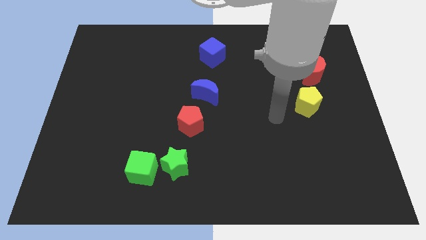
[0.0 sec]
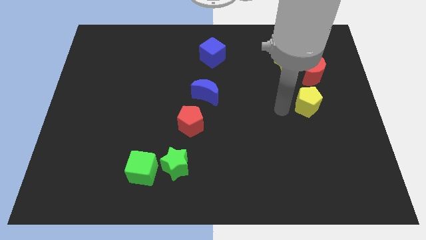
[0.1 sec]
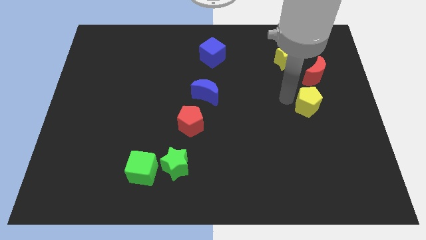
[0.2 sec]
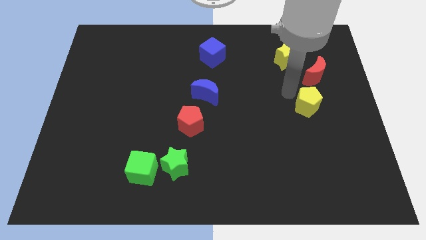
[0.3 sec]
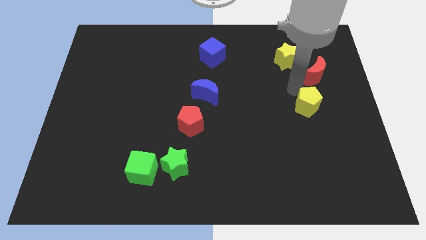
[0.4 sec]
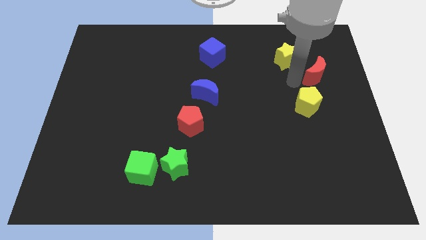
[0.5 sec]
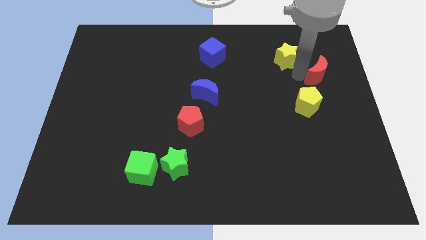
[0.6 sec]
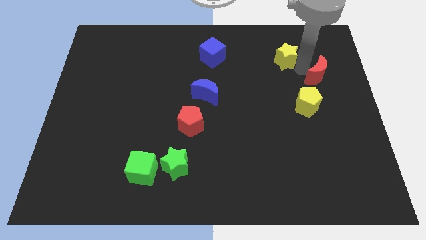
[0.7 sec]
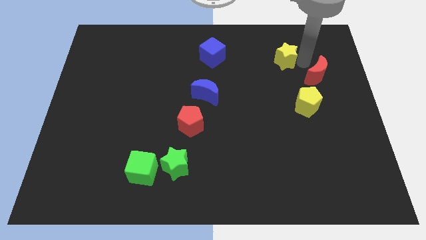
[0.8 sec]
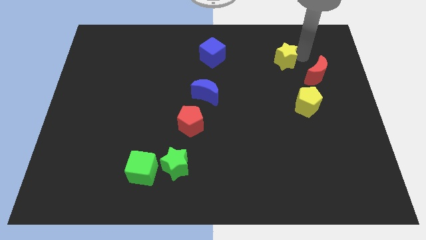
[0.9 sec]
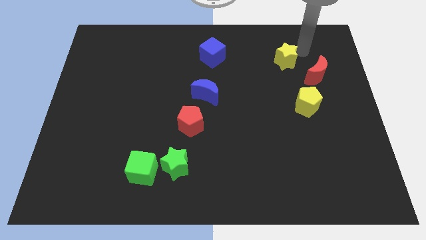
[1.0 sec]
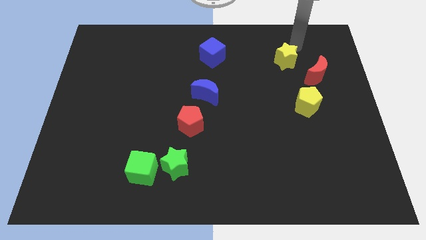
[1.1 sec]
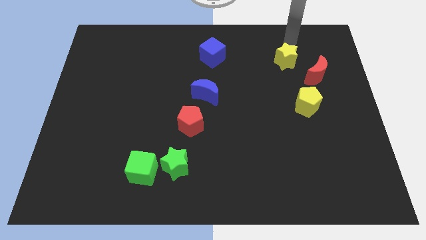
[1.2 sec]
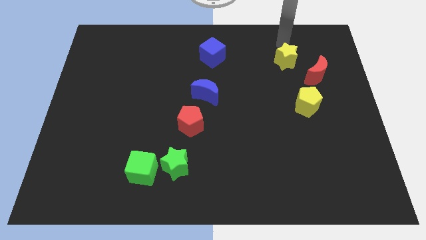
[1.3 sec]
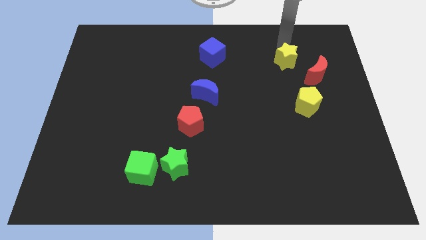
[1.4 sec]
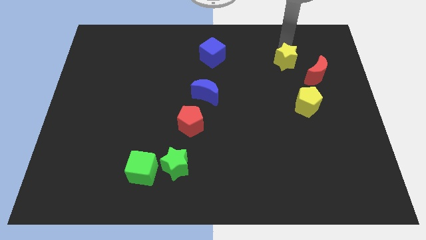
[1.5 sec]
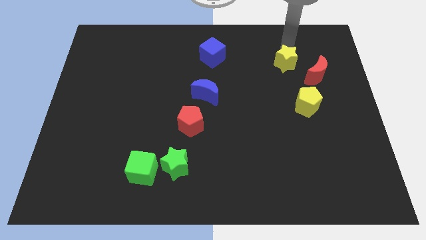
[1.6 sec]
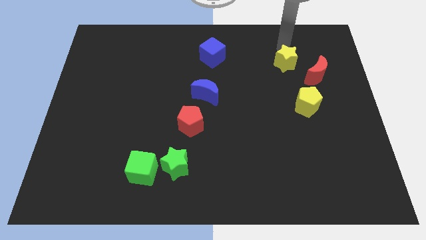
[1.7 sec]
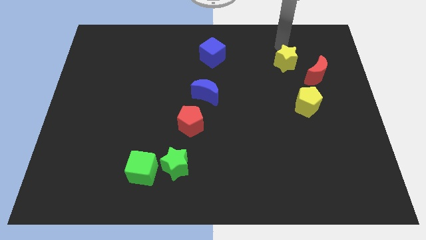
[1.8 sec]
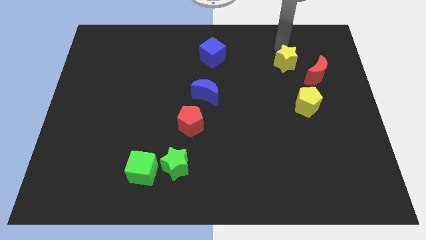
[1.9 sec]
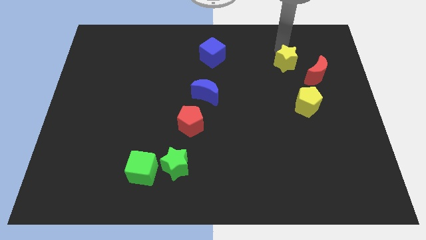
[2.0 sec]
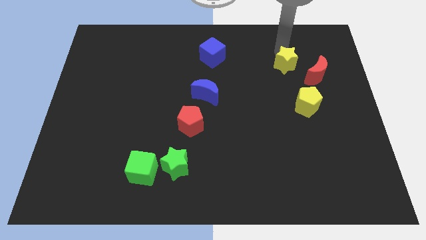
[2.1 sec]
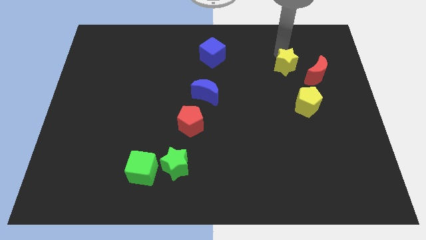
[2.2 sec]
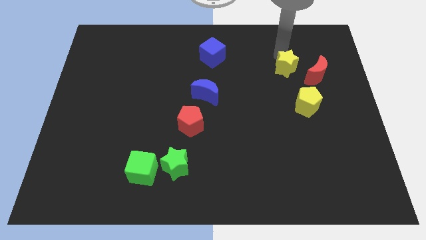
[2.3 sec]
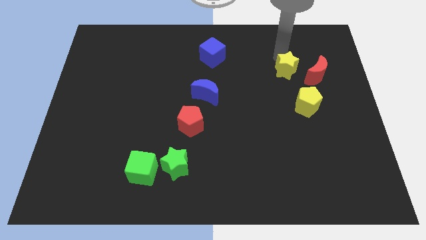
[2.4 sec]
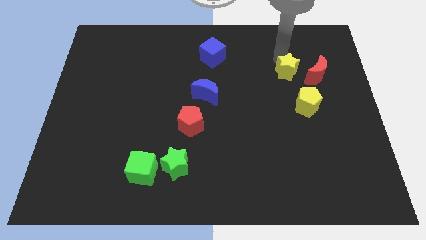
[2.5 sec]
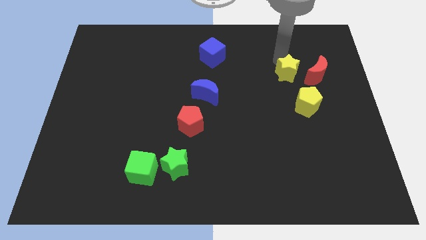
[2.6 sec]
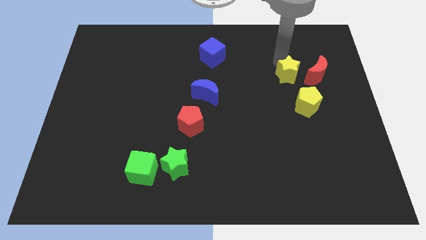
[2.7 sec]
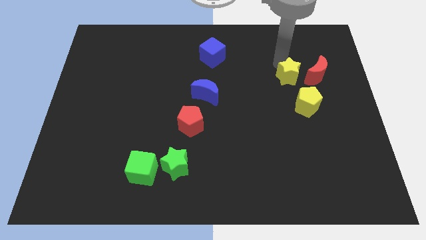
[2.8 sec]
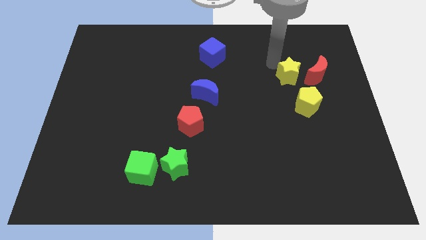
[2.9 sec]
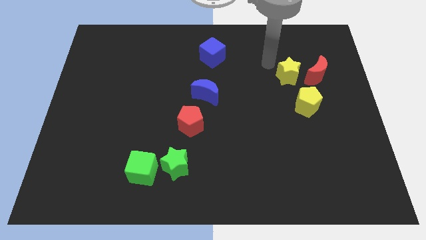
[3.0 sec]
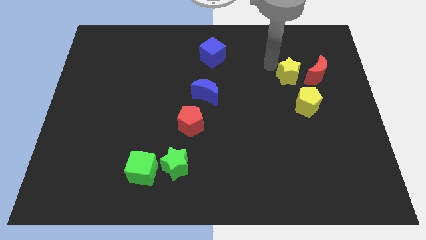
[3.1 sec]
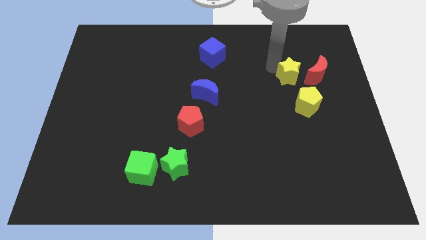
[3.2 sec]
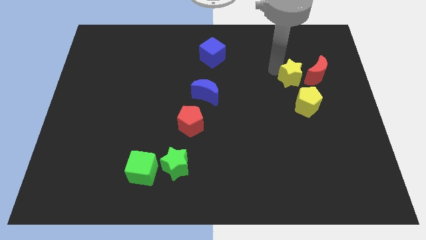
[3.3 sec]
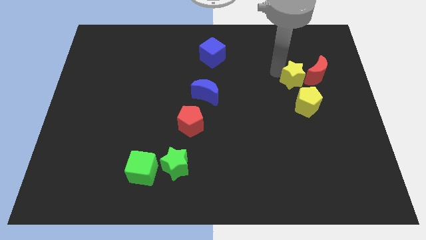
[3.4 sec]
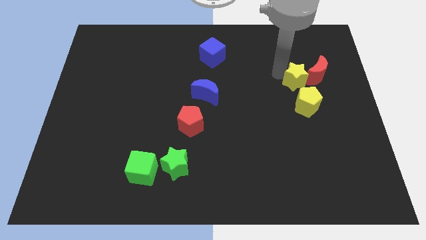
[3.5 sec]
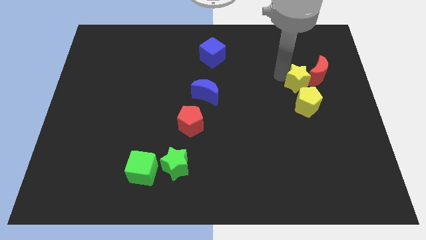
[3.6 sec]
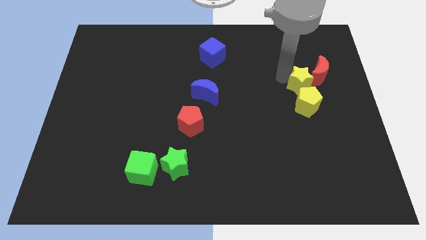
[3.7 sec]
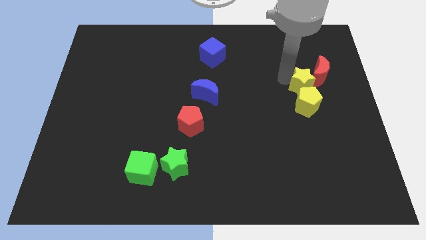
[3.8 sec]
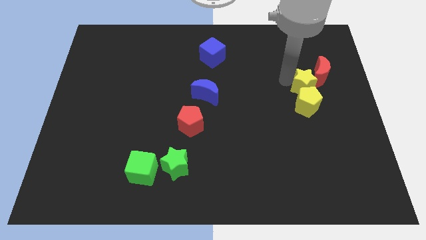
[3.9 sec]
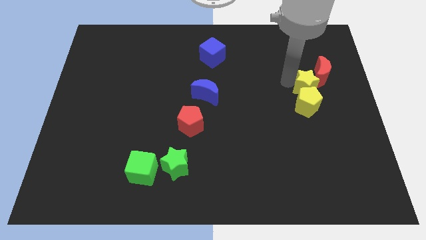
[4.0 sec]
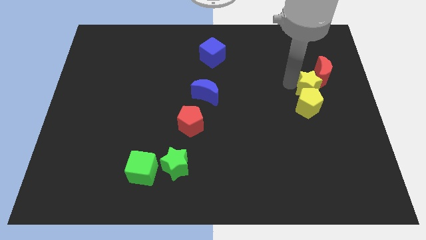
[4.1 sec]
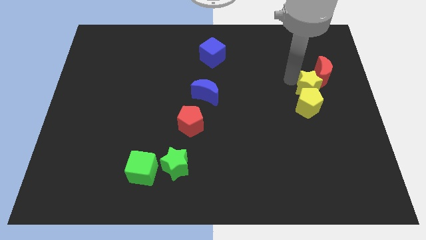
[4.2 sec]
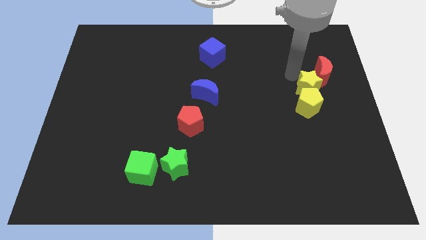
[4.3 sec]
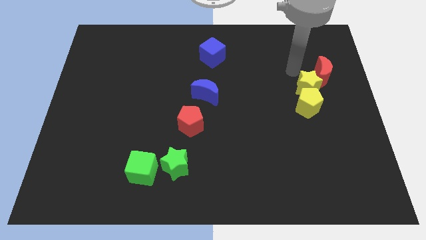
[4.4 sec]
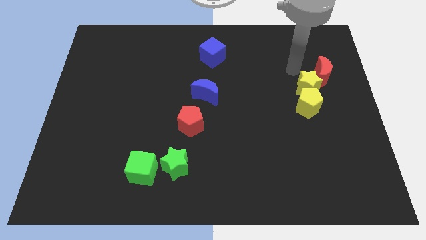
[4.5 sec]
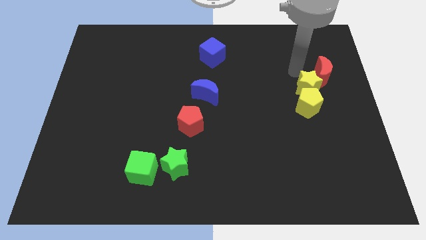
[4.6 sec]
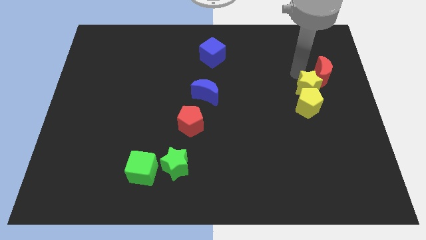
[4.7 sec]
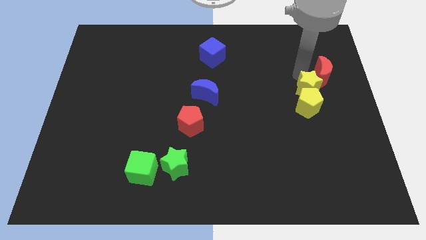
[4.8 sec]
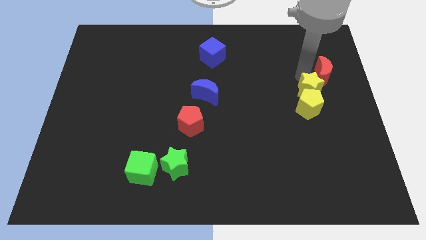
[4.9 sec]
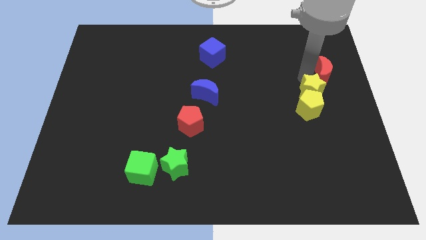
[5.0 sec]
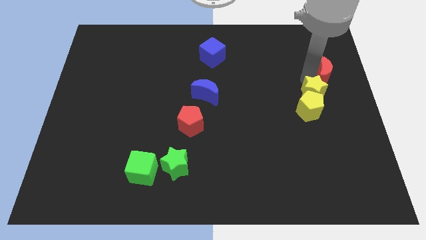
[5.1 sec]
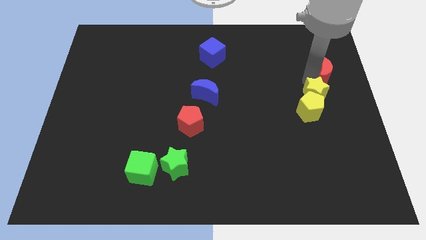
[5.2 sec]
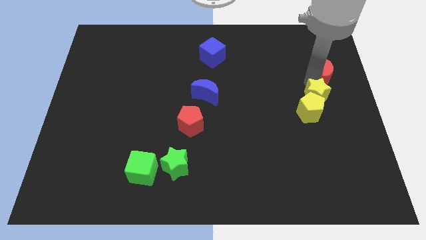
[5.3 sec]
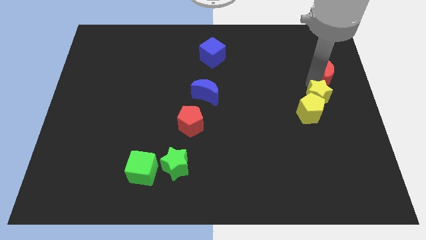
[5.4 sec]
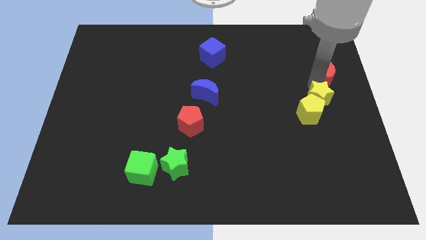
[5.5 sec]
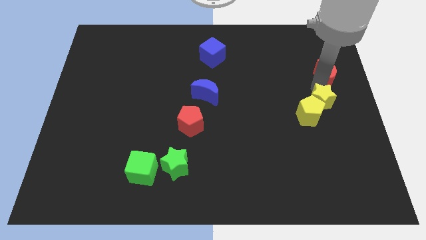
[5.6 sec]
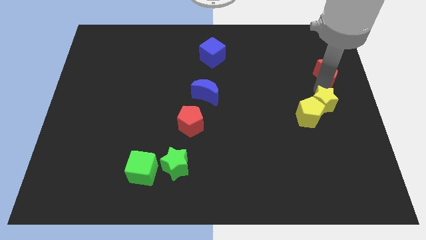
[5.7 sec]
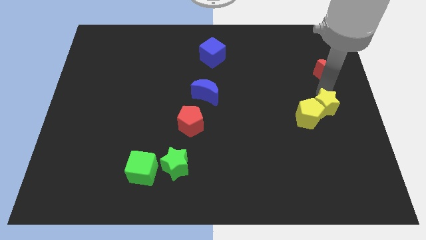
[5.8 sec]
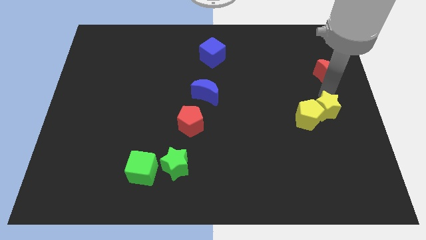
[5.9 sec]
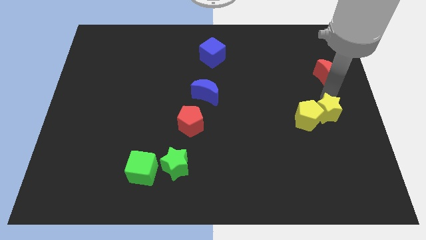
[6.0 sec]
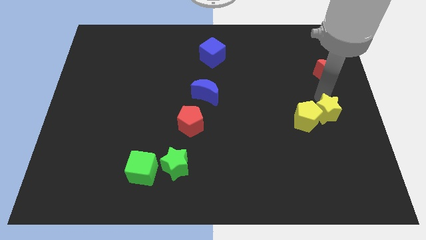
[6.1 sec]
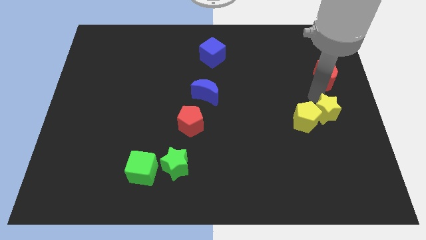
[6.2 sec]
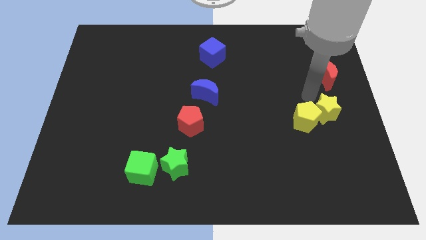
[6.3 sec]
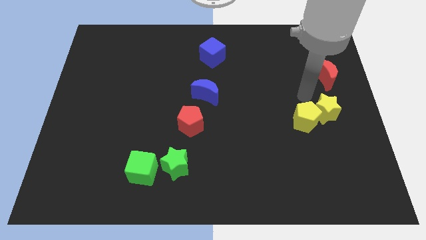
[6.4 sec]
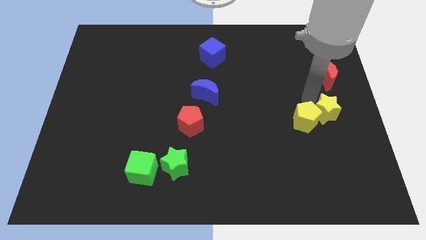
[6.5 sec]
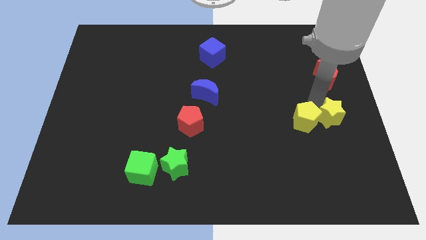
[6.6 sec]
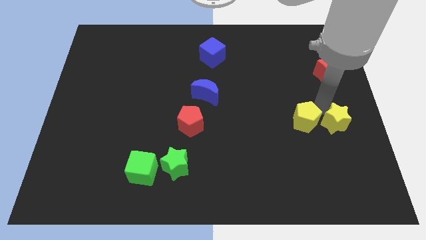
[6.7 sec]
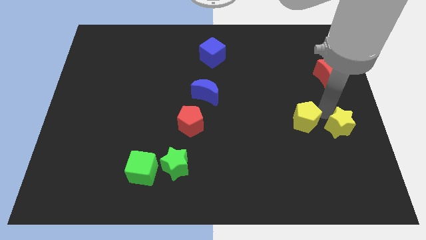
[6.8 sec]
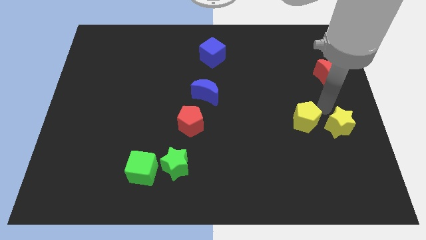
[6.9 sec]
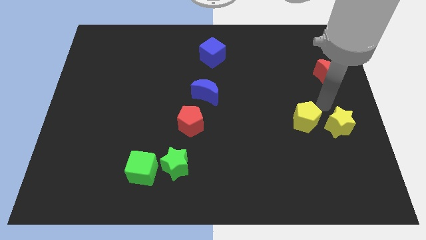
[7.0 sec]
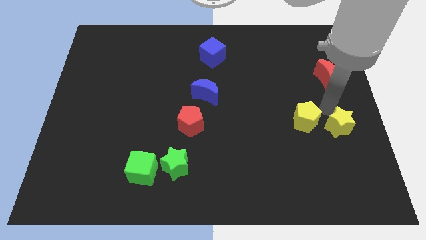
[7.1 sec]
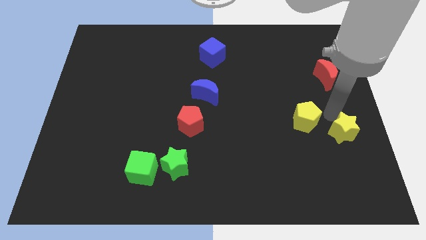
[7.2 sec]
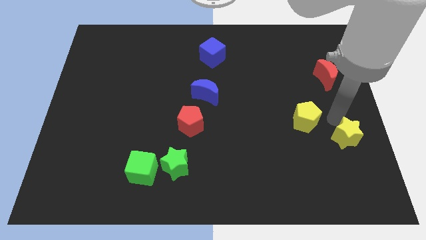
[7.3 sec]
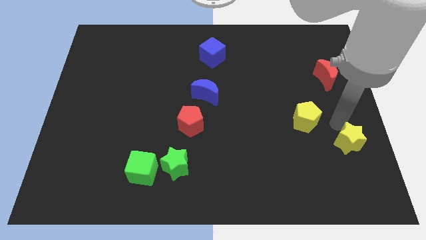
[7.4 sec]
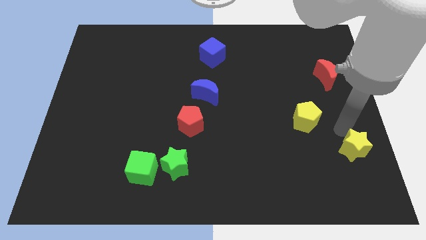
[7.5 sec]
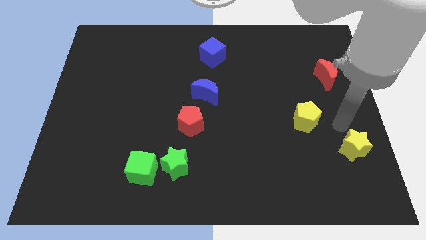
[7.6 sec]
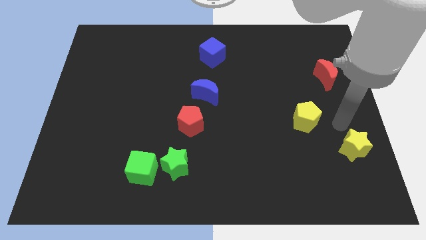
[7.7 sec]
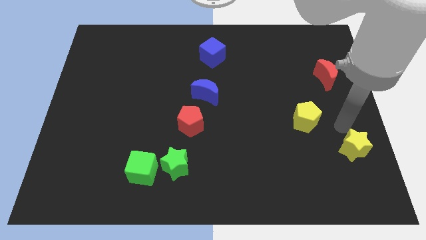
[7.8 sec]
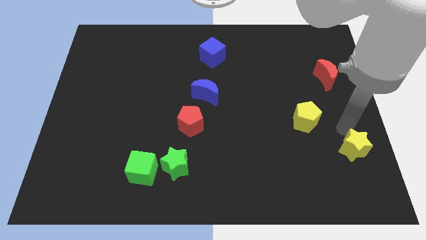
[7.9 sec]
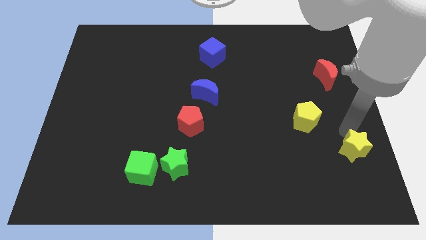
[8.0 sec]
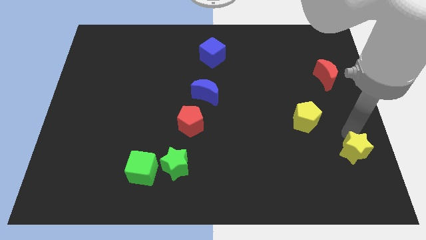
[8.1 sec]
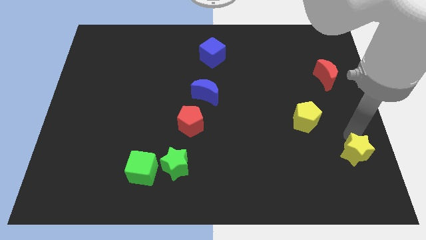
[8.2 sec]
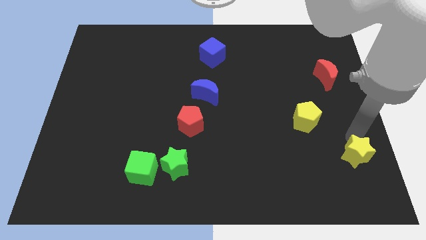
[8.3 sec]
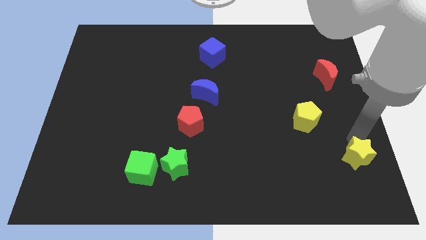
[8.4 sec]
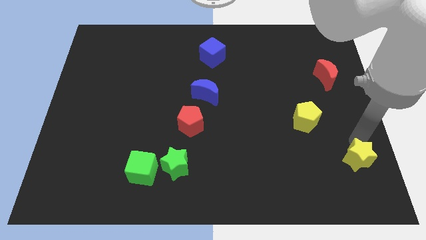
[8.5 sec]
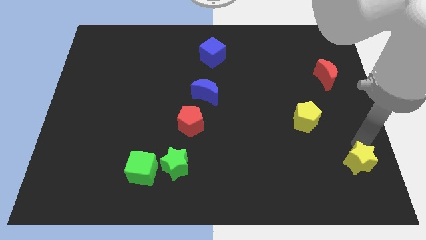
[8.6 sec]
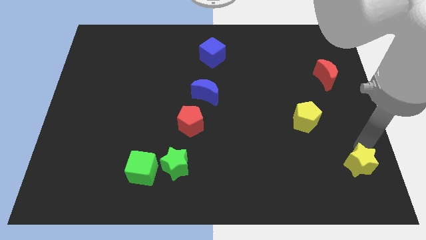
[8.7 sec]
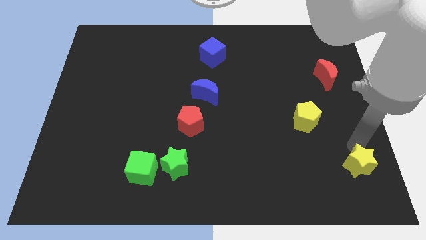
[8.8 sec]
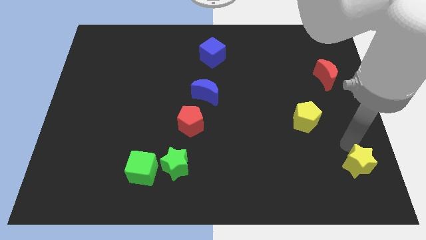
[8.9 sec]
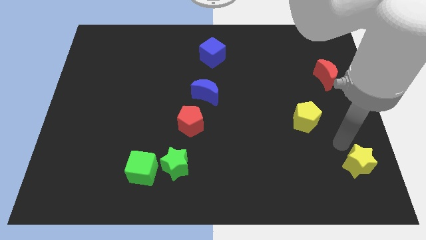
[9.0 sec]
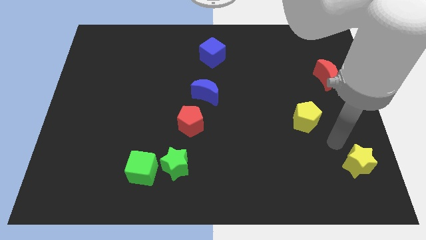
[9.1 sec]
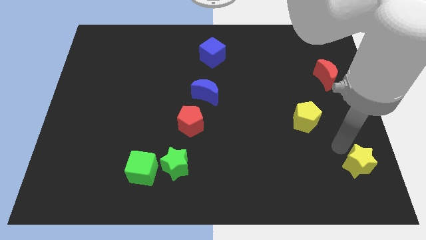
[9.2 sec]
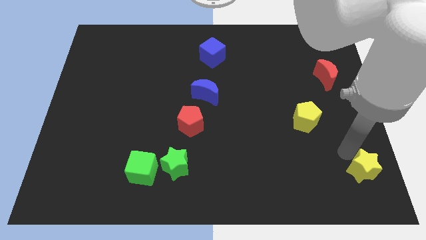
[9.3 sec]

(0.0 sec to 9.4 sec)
push the yellow star to the bottom right
